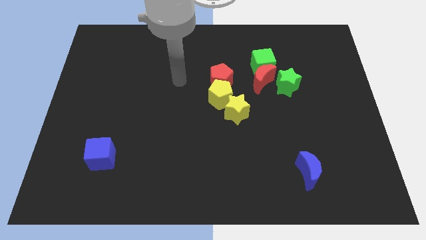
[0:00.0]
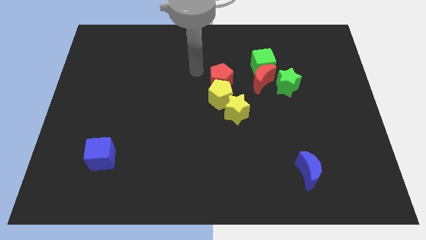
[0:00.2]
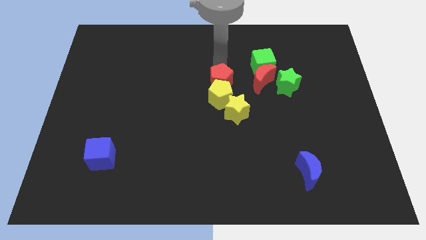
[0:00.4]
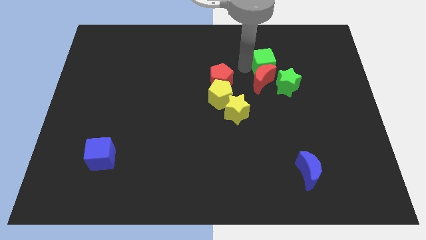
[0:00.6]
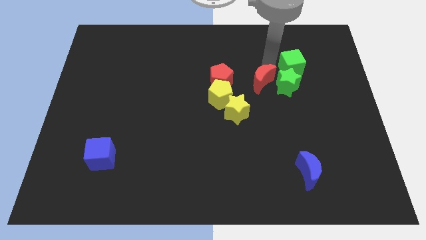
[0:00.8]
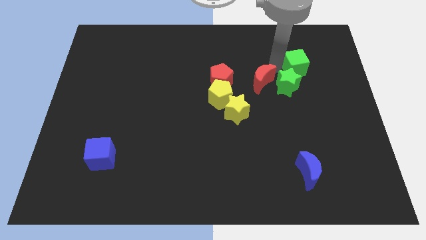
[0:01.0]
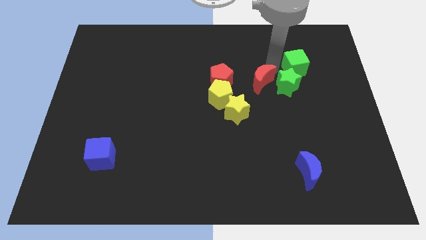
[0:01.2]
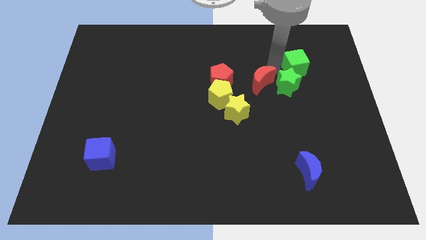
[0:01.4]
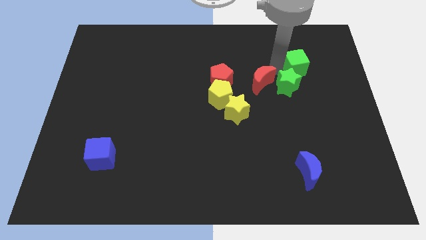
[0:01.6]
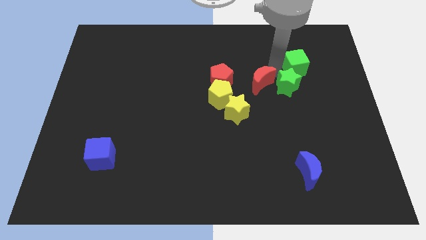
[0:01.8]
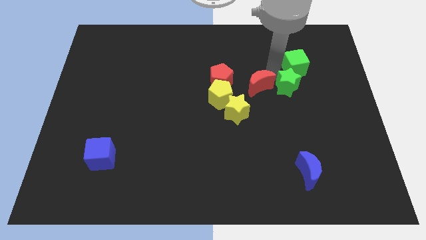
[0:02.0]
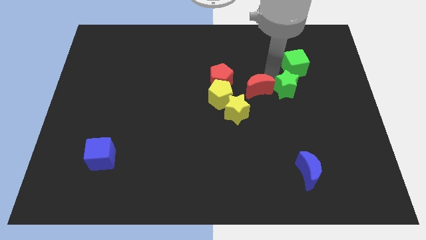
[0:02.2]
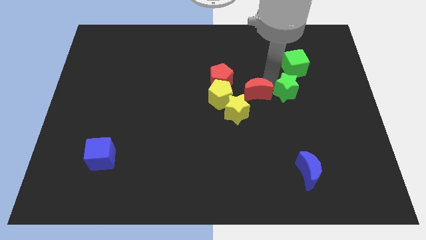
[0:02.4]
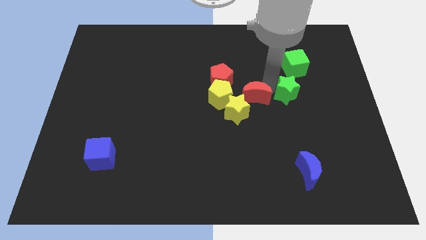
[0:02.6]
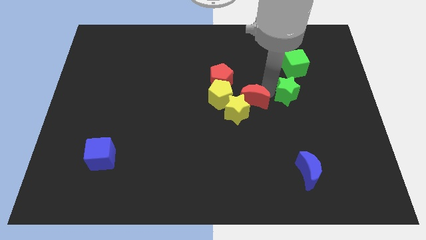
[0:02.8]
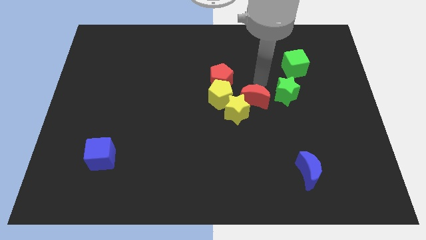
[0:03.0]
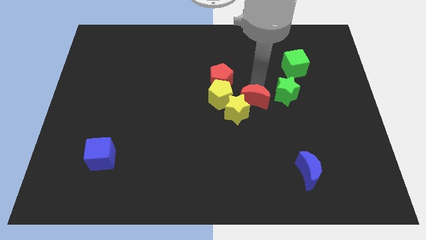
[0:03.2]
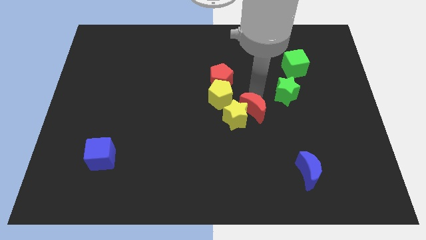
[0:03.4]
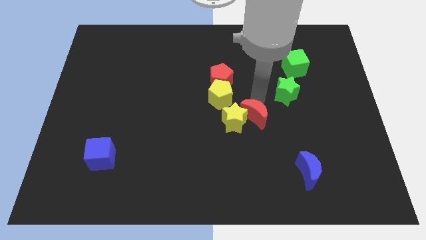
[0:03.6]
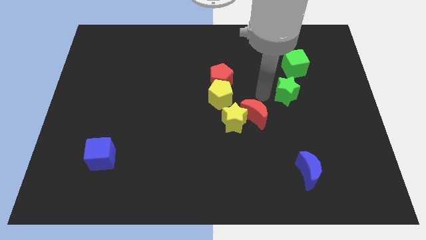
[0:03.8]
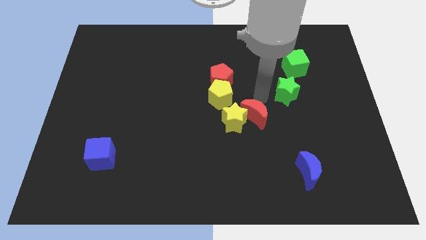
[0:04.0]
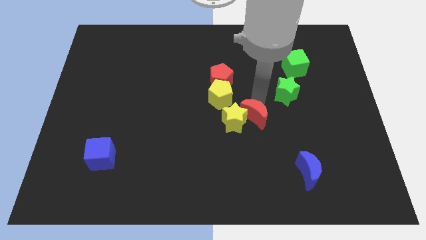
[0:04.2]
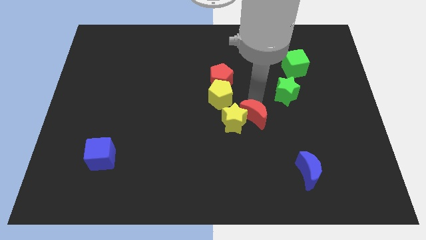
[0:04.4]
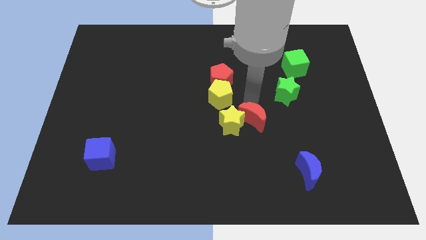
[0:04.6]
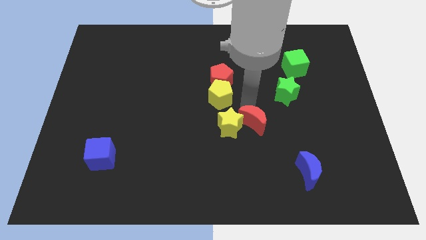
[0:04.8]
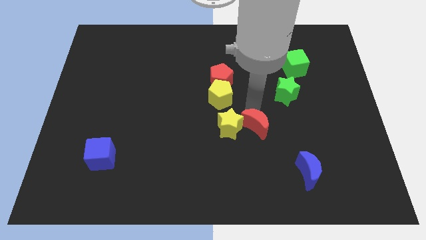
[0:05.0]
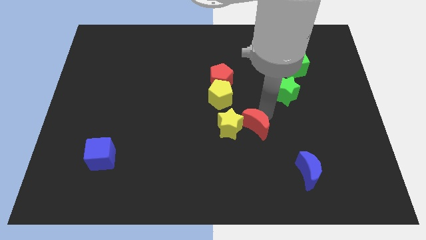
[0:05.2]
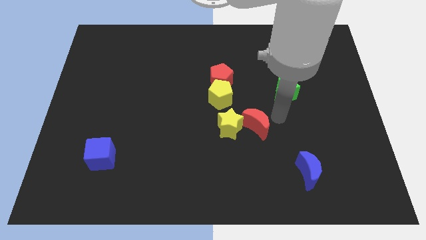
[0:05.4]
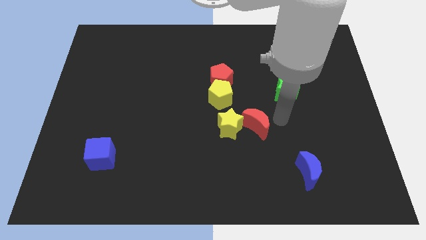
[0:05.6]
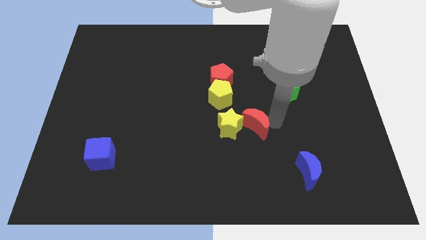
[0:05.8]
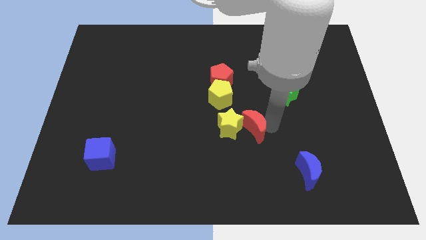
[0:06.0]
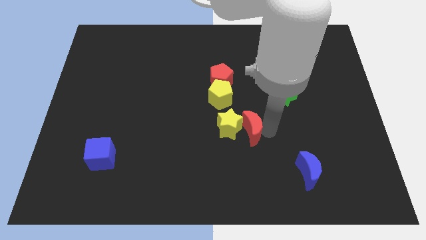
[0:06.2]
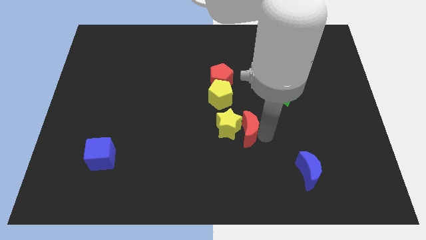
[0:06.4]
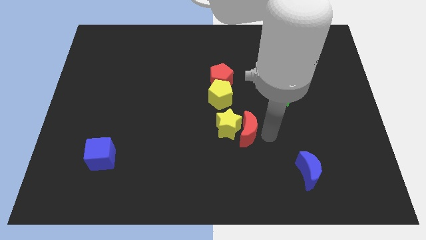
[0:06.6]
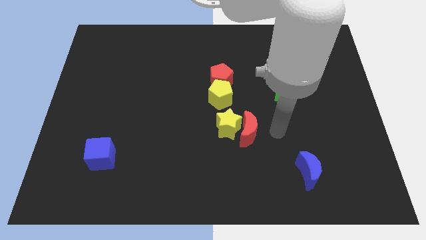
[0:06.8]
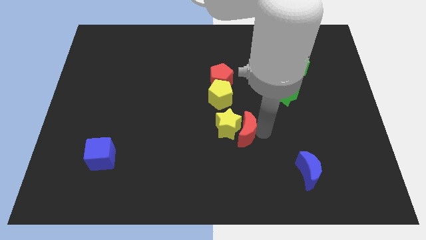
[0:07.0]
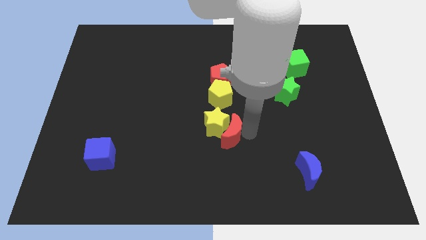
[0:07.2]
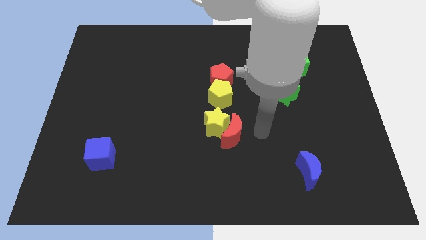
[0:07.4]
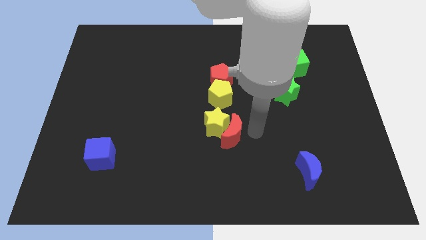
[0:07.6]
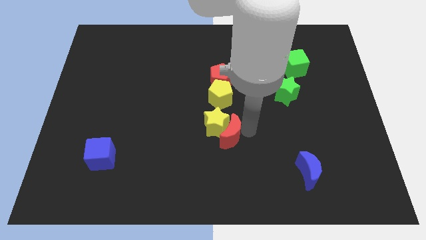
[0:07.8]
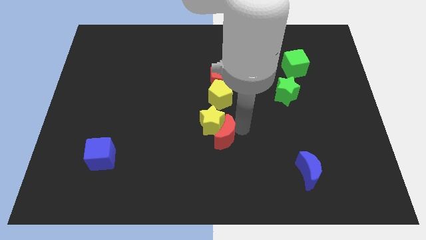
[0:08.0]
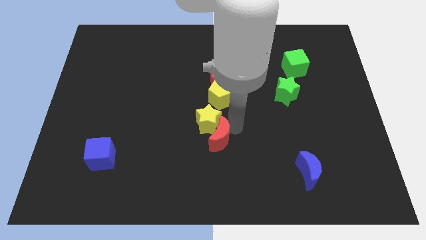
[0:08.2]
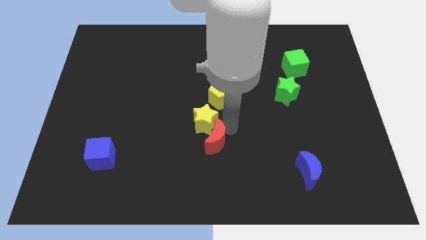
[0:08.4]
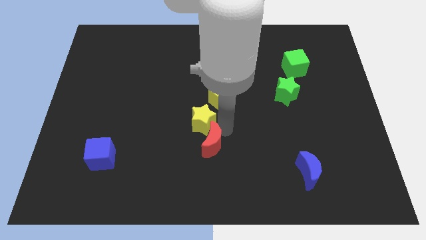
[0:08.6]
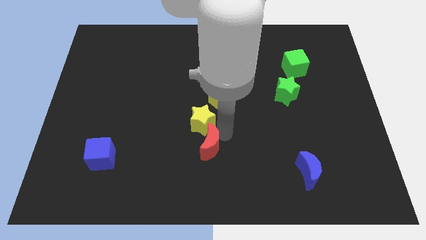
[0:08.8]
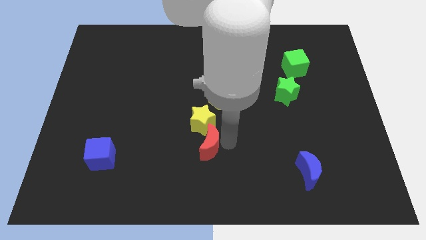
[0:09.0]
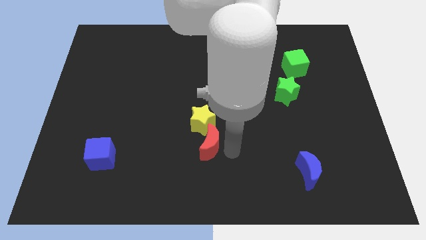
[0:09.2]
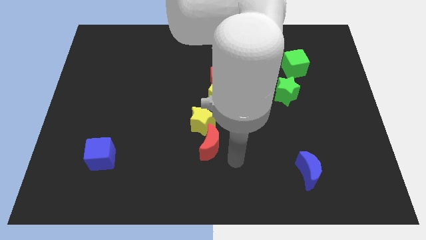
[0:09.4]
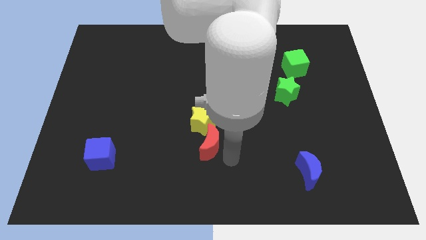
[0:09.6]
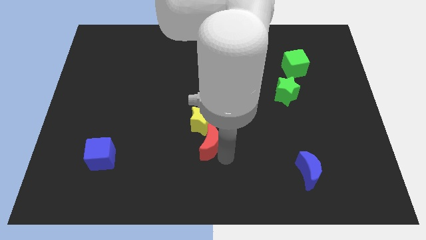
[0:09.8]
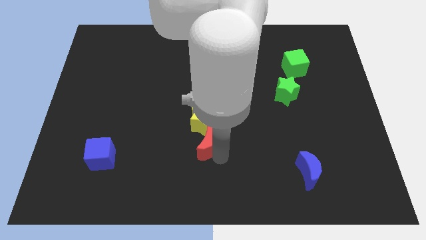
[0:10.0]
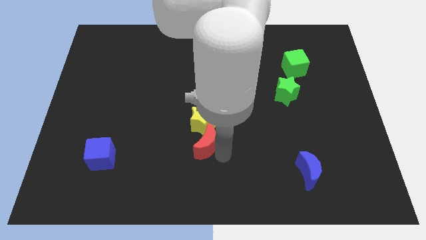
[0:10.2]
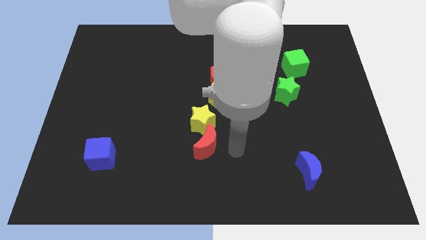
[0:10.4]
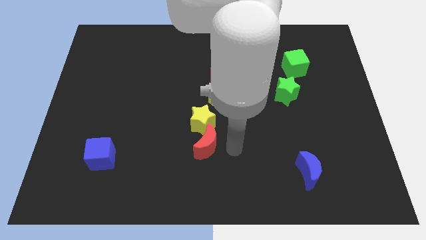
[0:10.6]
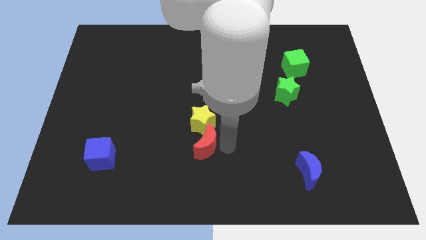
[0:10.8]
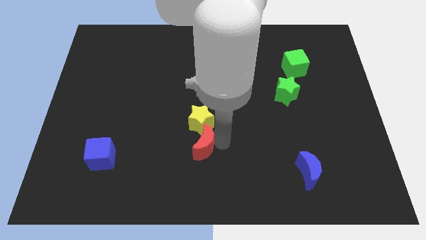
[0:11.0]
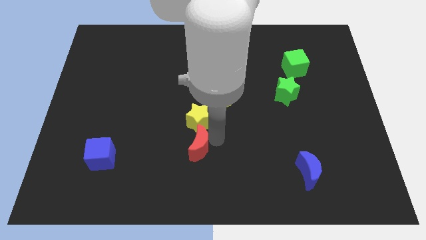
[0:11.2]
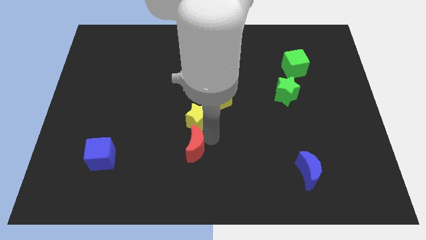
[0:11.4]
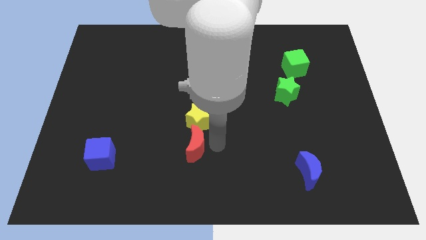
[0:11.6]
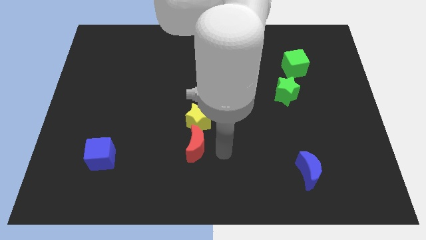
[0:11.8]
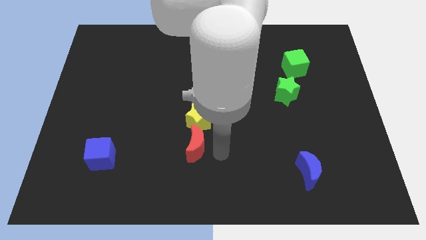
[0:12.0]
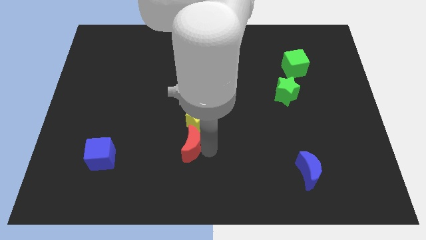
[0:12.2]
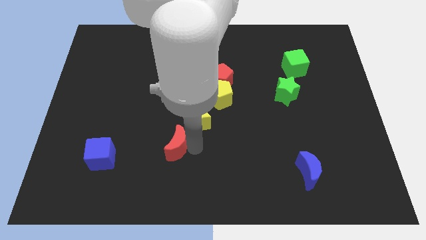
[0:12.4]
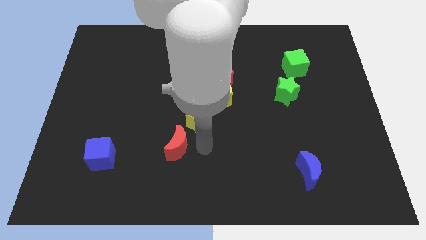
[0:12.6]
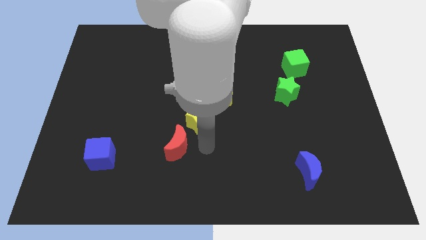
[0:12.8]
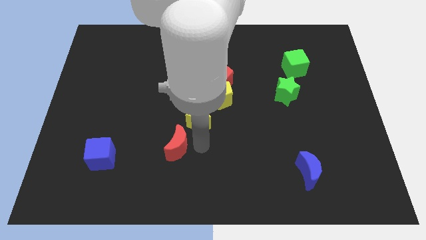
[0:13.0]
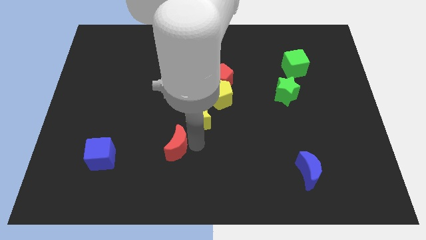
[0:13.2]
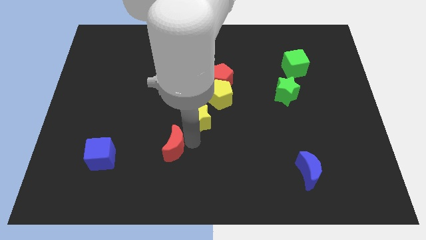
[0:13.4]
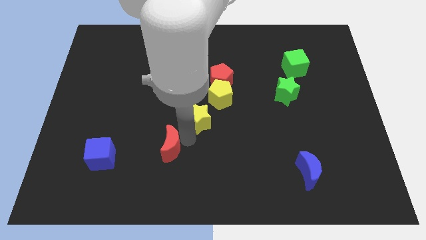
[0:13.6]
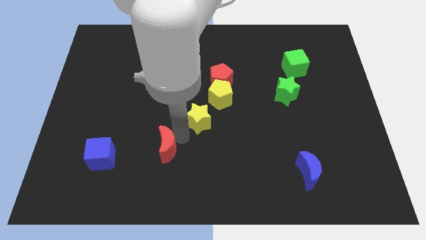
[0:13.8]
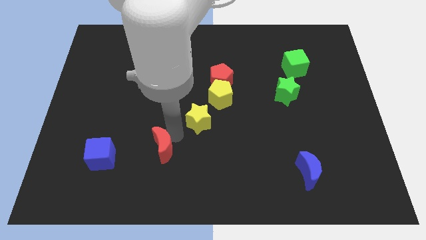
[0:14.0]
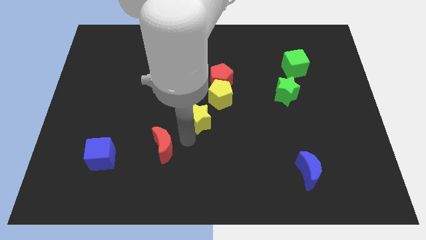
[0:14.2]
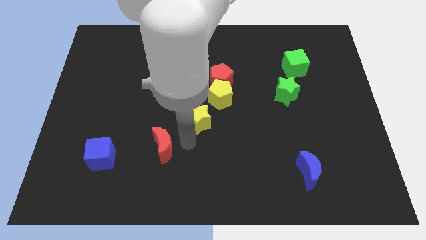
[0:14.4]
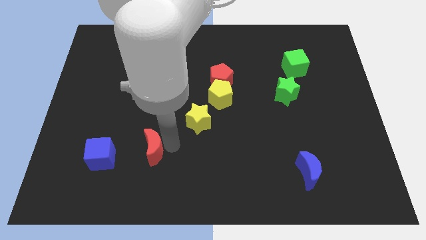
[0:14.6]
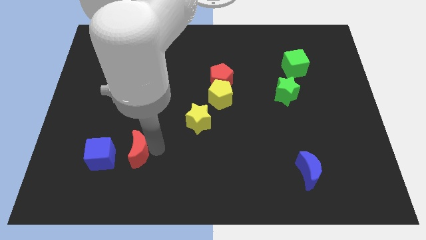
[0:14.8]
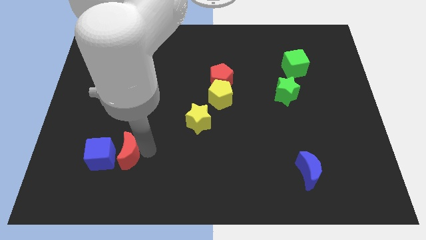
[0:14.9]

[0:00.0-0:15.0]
push the red moon close to the blue cube
